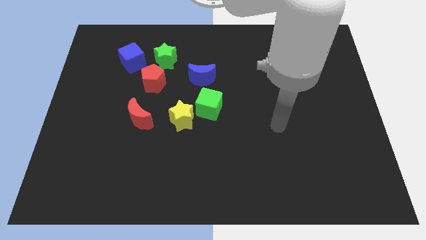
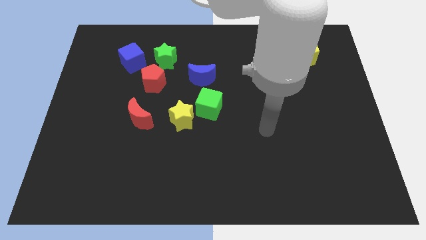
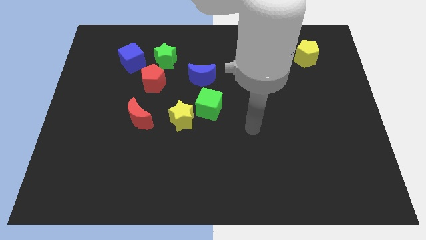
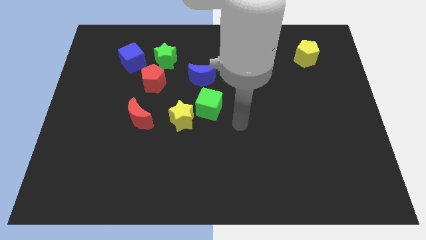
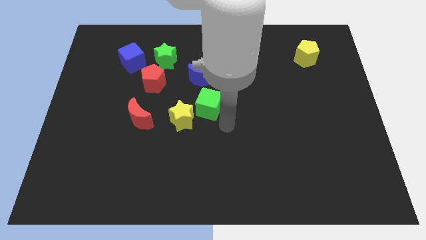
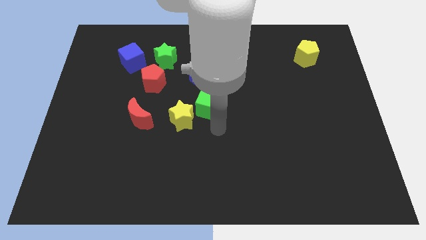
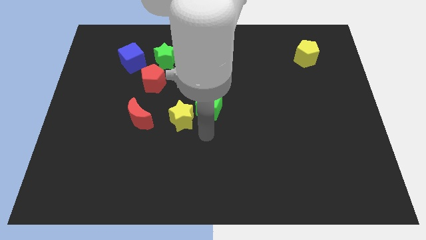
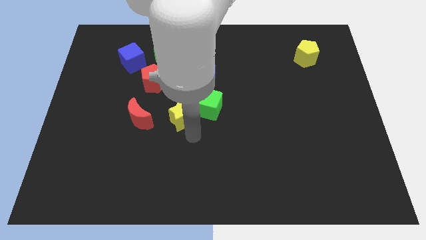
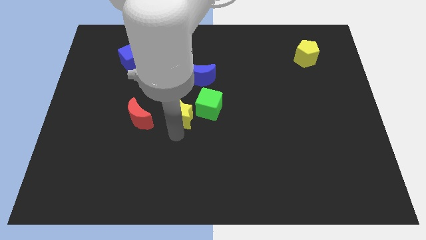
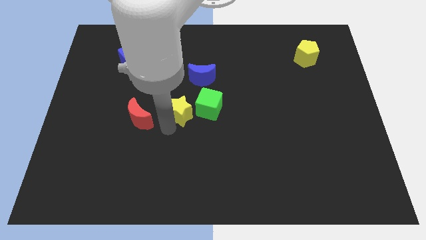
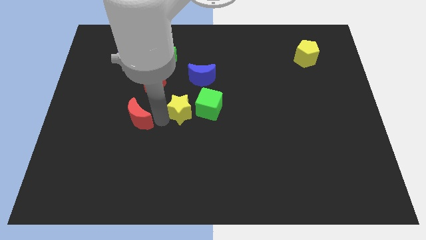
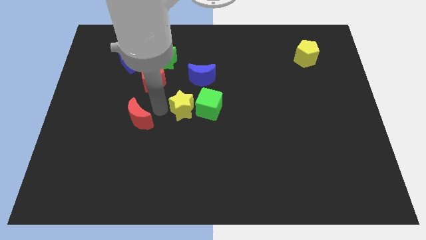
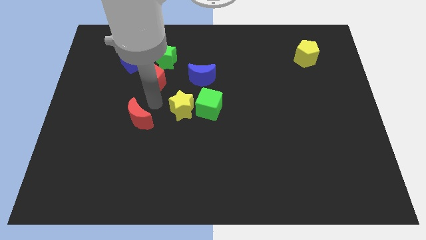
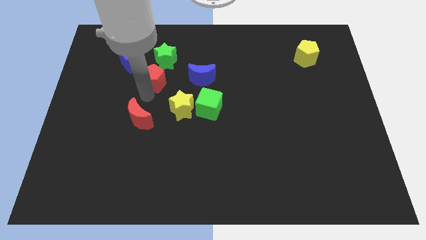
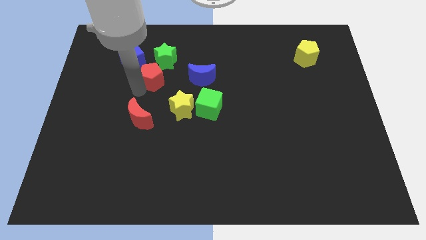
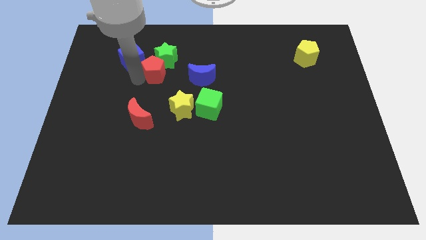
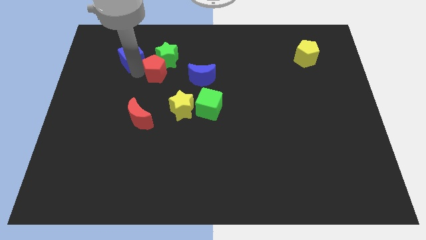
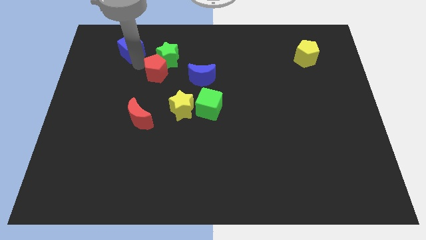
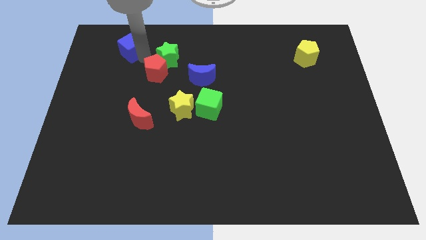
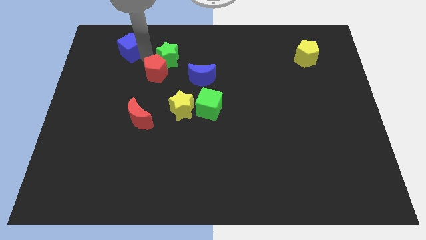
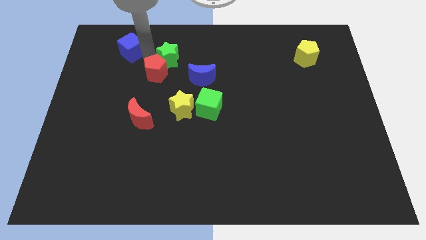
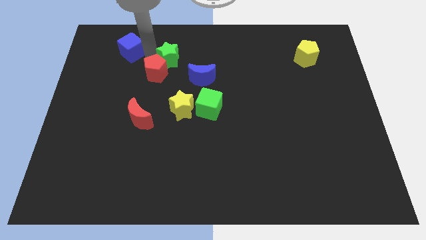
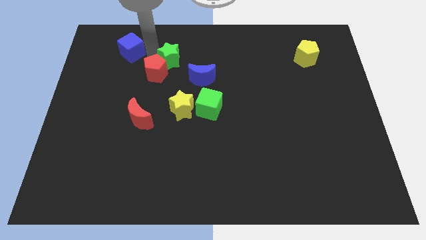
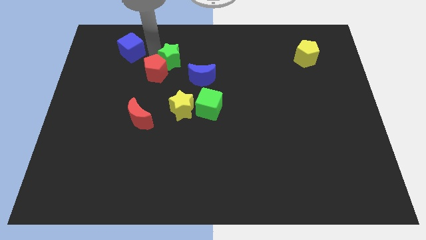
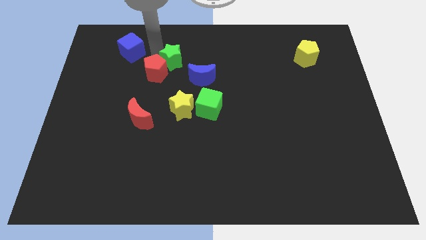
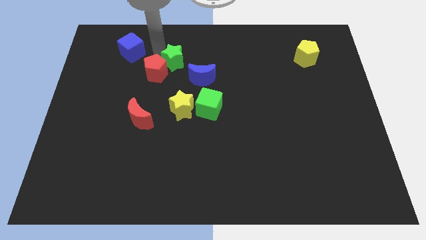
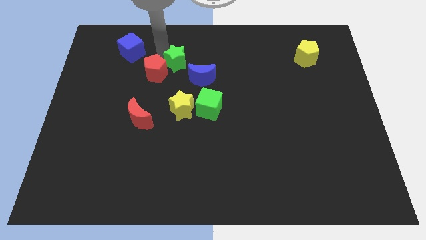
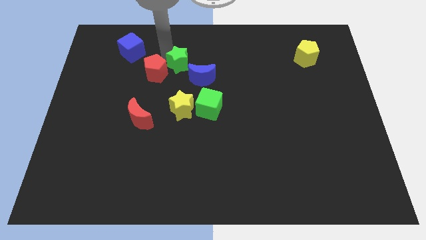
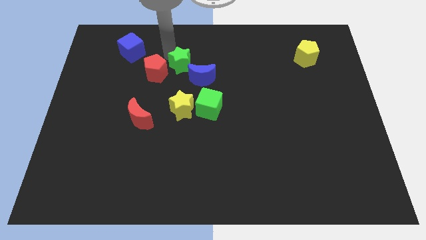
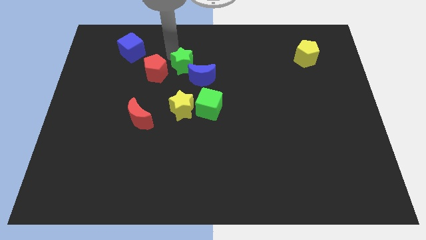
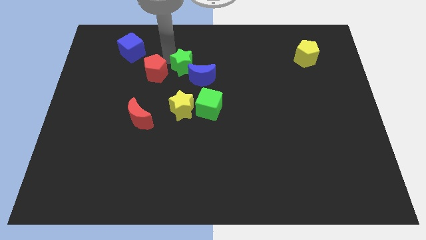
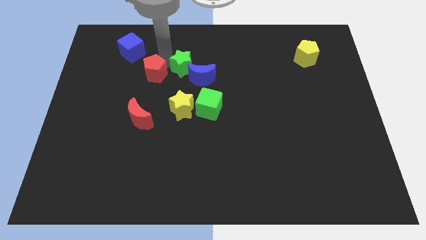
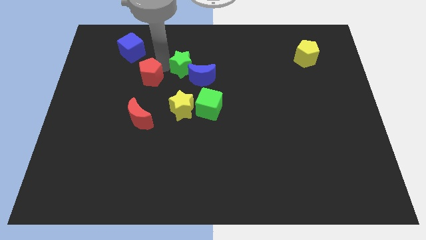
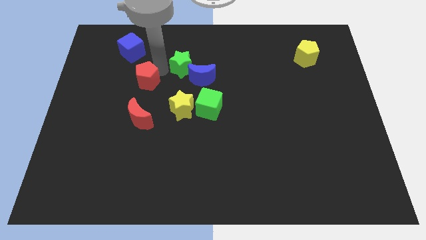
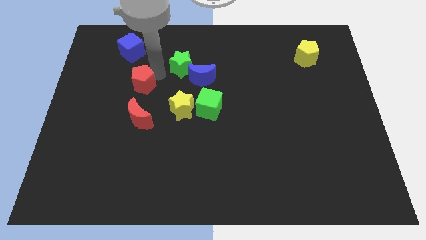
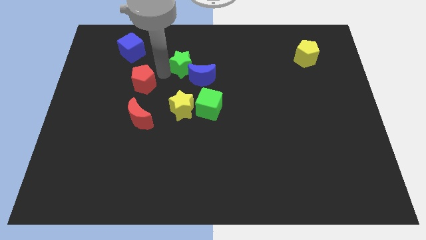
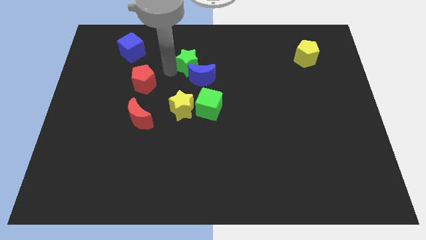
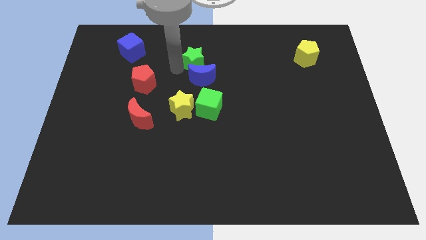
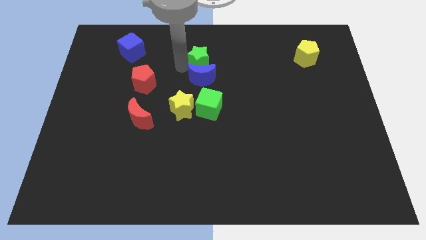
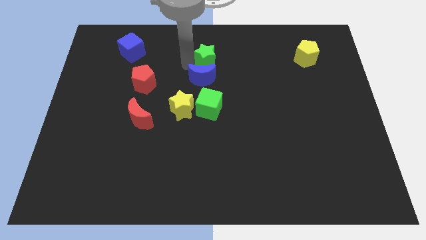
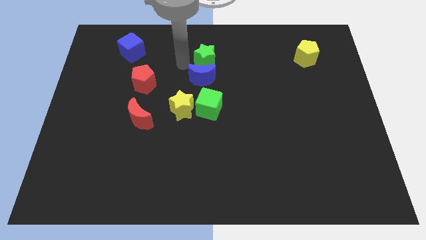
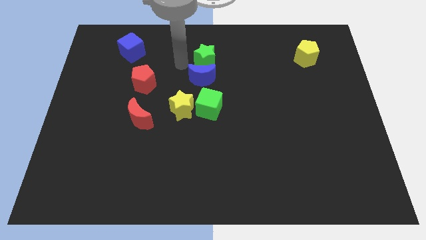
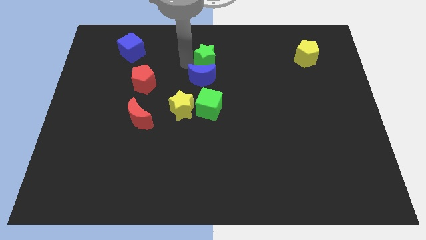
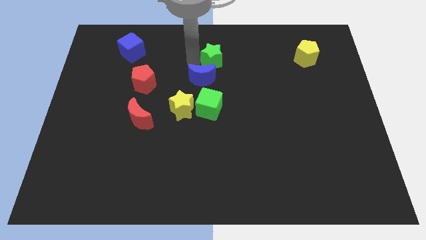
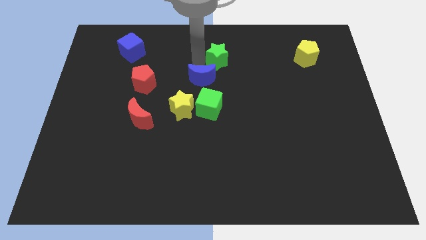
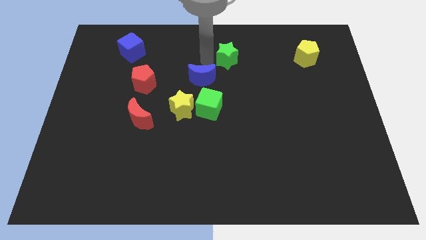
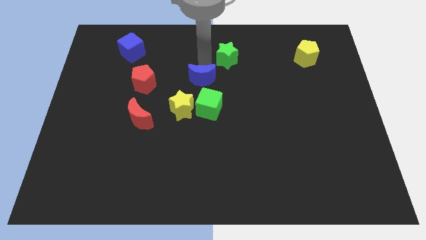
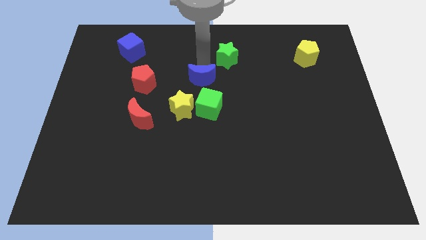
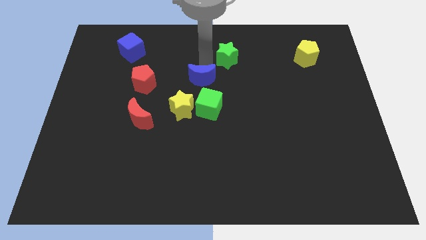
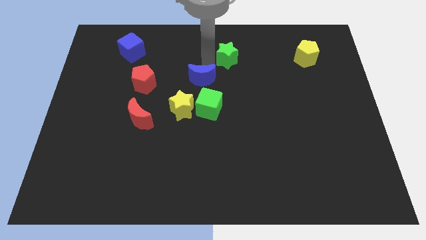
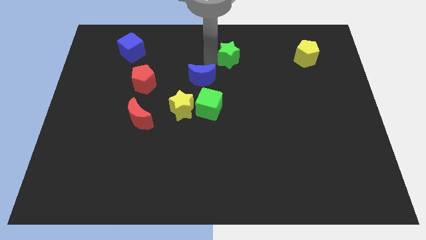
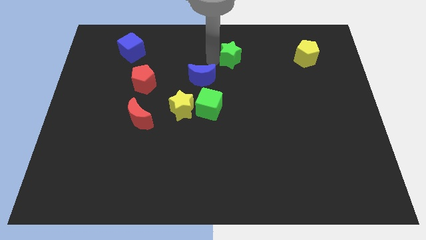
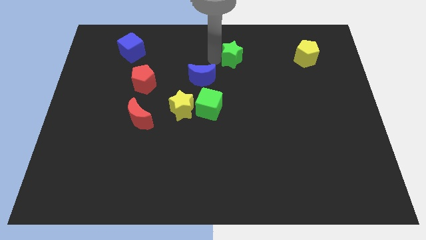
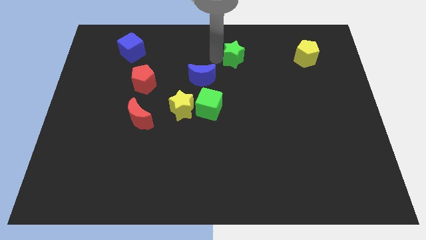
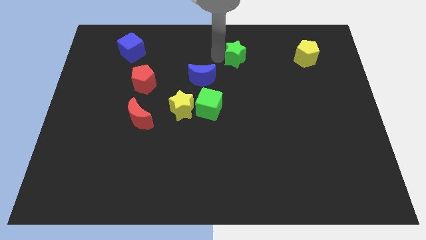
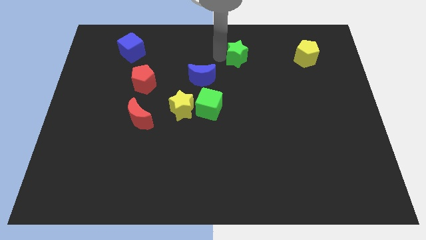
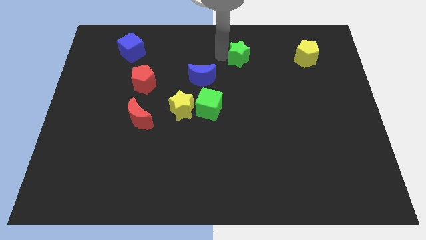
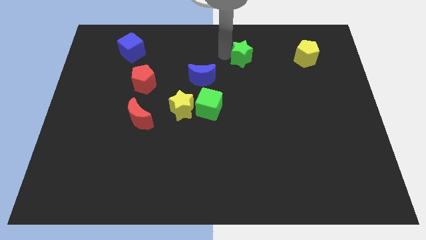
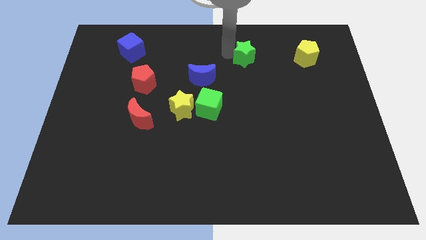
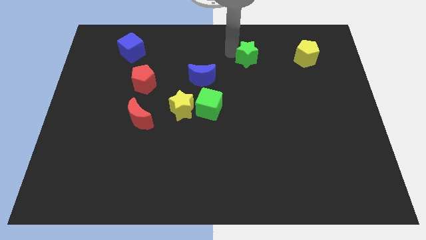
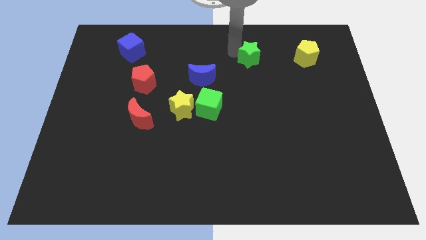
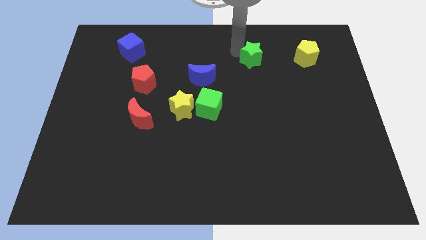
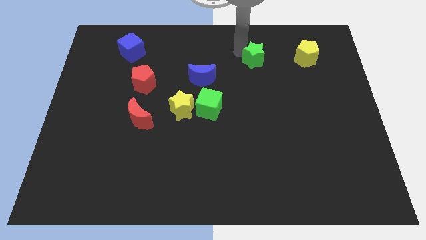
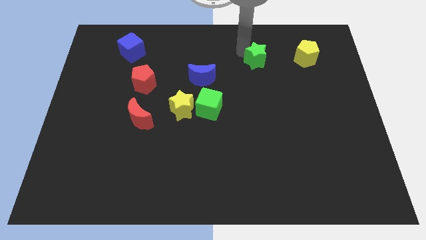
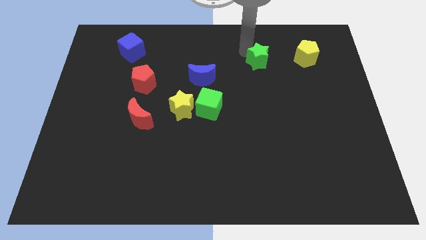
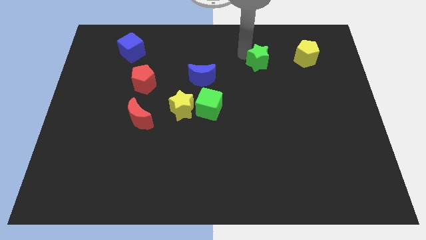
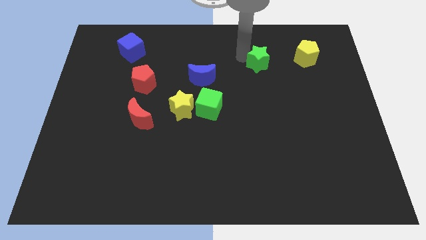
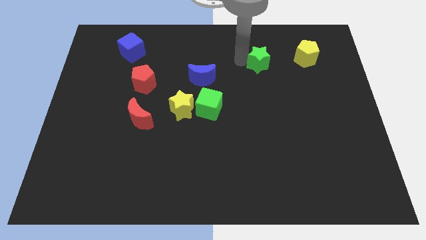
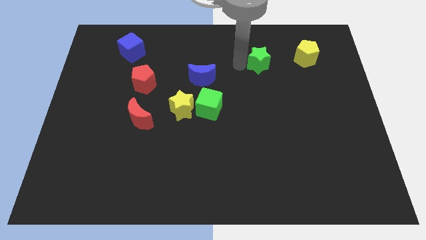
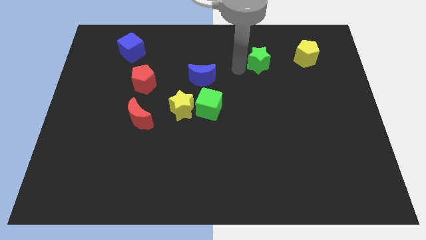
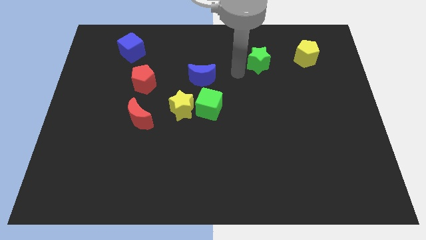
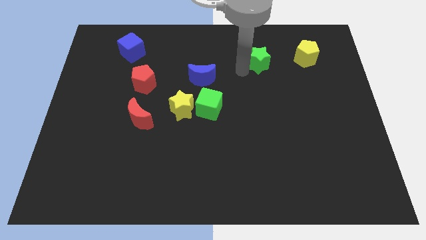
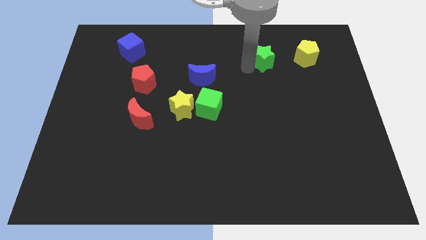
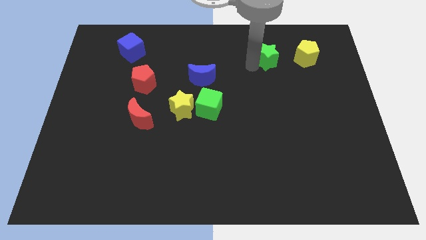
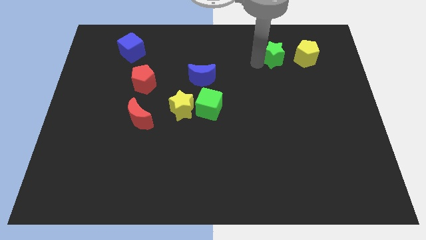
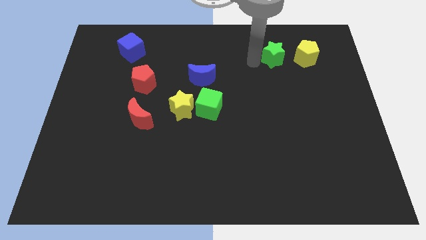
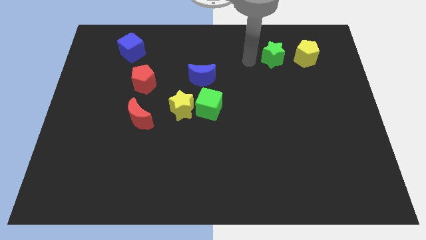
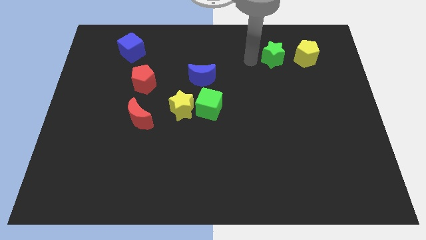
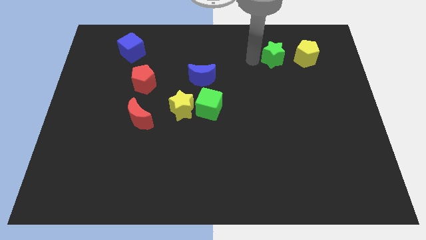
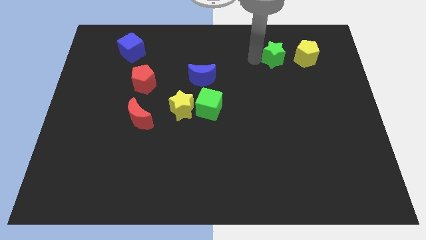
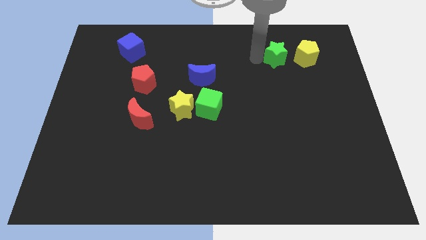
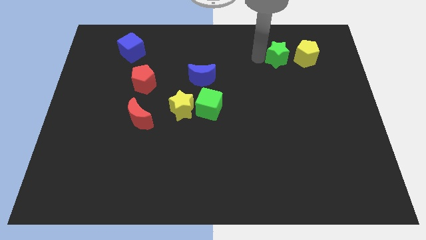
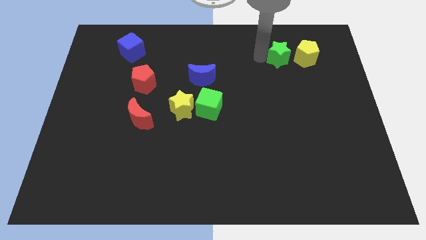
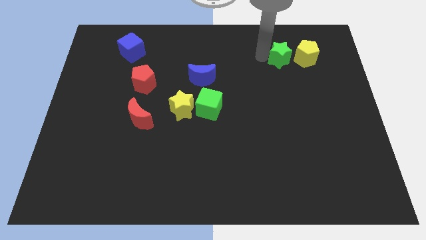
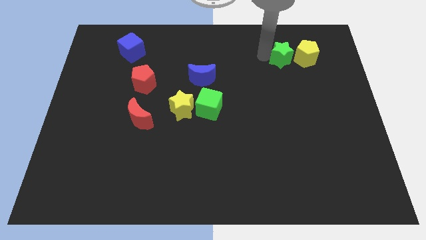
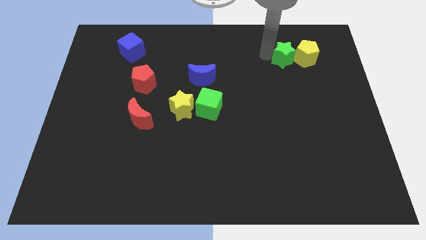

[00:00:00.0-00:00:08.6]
put the green star to the yellow pentagon
